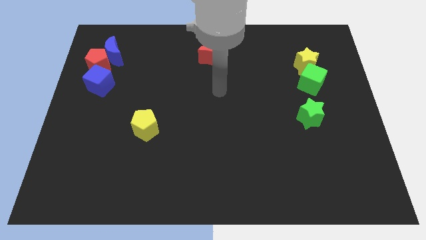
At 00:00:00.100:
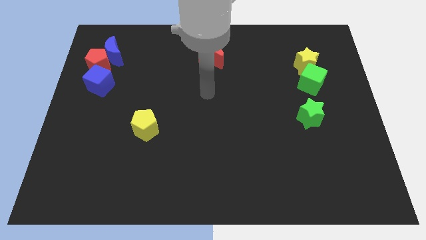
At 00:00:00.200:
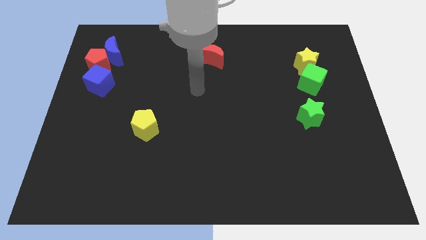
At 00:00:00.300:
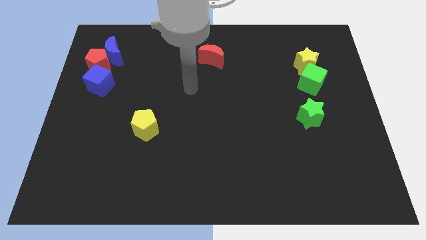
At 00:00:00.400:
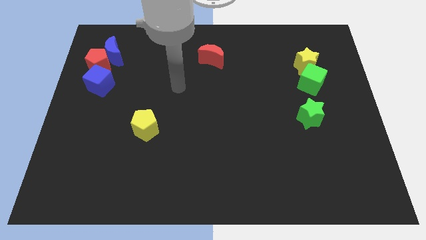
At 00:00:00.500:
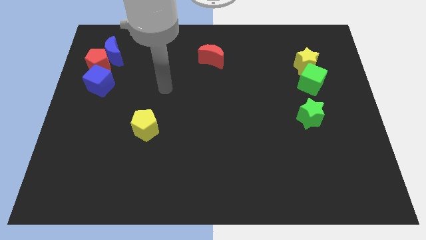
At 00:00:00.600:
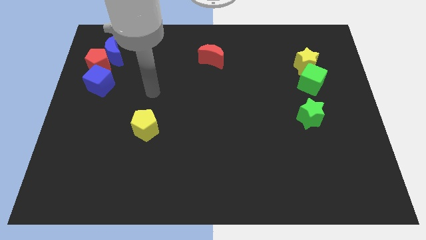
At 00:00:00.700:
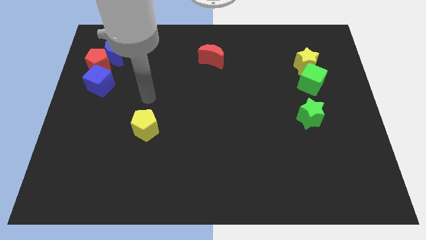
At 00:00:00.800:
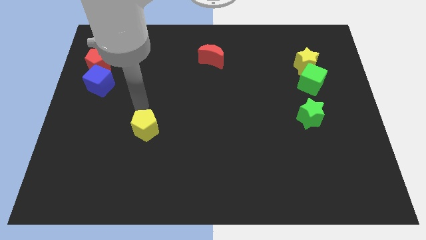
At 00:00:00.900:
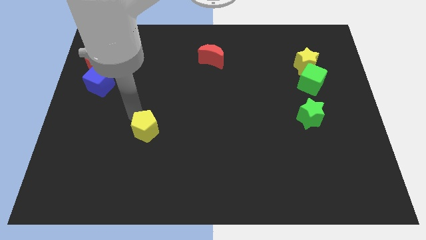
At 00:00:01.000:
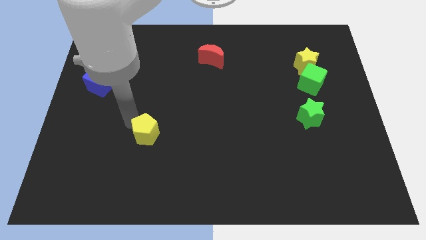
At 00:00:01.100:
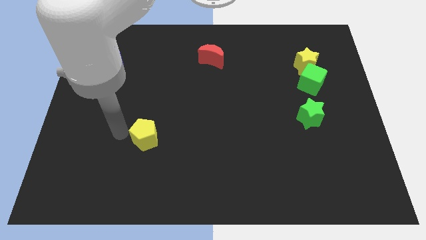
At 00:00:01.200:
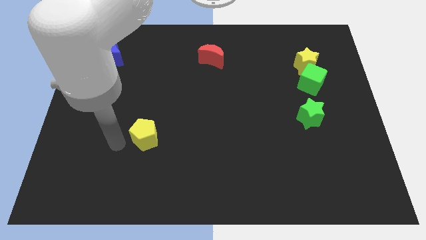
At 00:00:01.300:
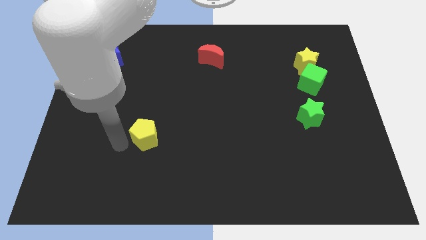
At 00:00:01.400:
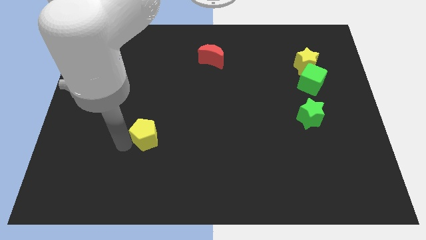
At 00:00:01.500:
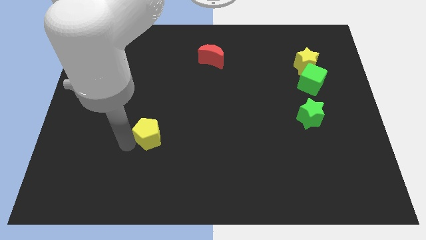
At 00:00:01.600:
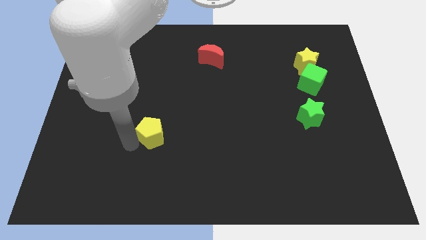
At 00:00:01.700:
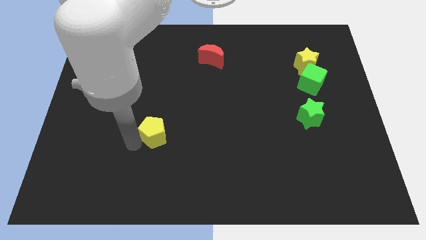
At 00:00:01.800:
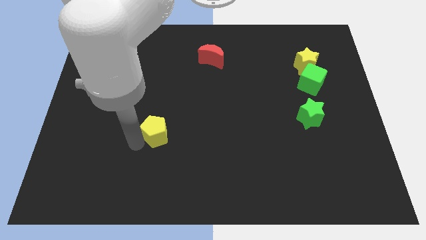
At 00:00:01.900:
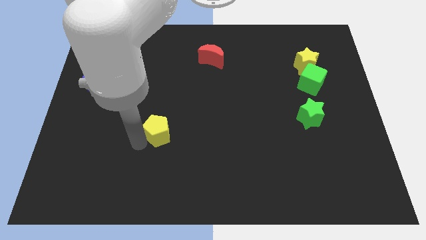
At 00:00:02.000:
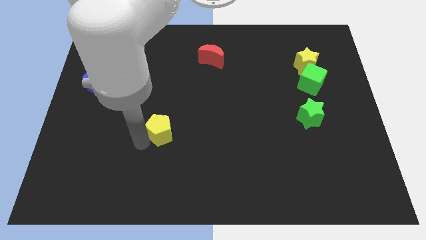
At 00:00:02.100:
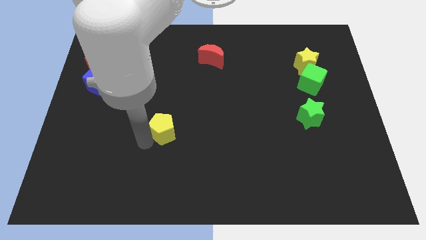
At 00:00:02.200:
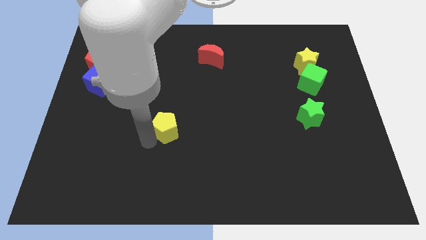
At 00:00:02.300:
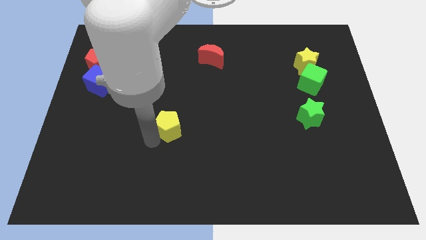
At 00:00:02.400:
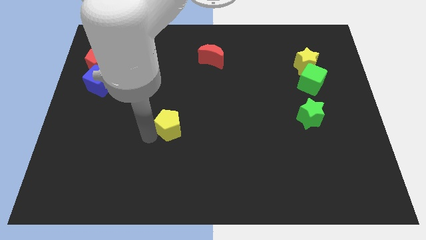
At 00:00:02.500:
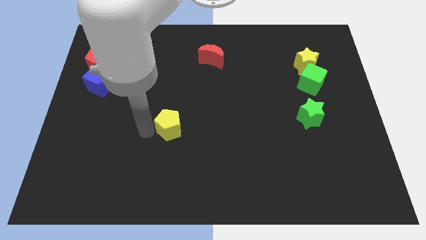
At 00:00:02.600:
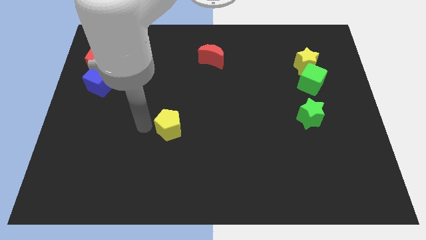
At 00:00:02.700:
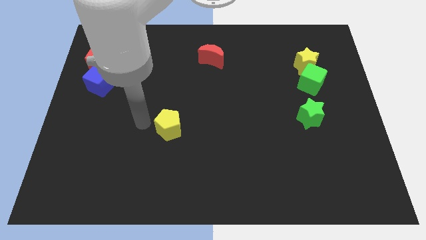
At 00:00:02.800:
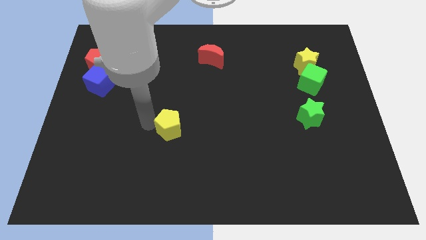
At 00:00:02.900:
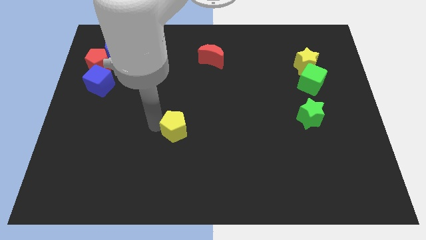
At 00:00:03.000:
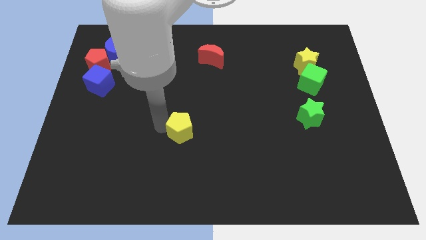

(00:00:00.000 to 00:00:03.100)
push the yellow pentagon to the right a bit

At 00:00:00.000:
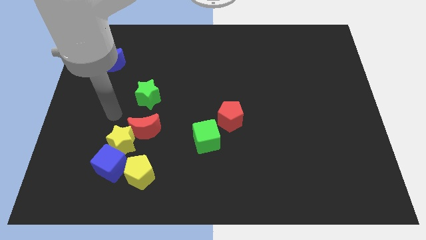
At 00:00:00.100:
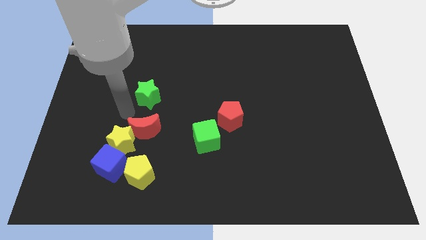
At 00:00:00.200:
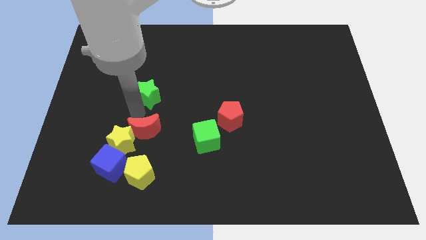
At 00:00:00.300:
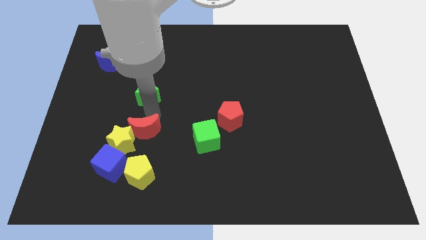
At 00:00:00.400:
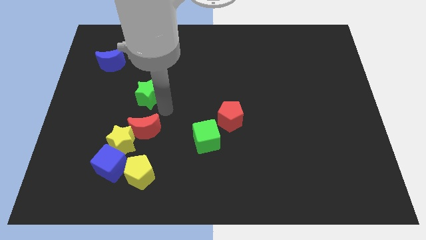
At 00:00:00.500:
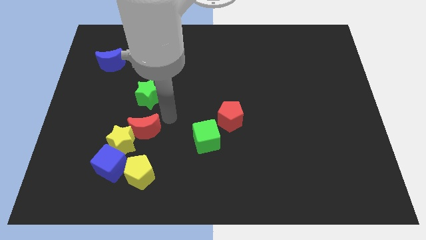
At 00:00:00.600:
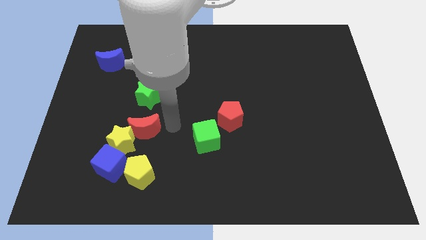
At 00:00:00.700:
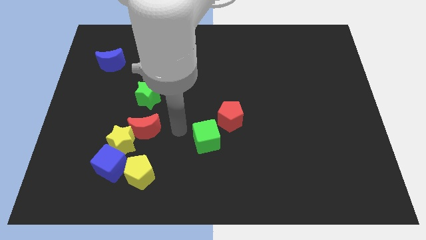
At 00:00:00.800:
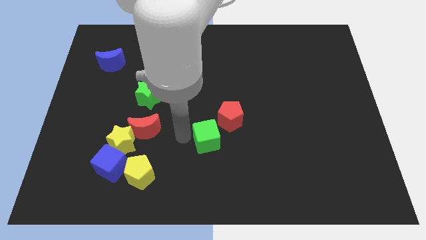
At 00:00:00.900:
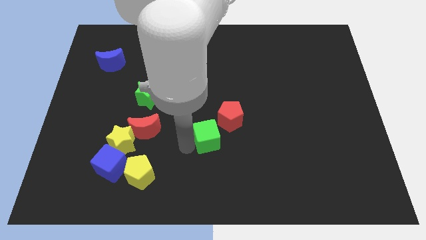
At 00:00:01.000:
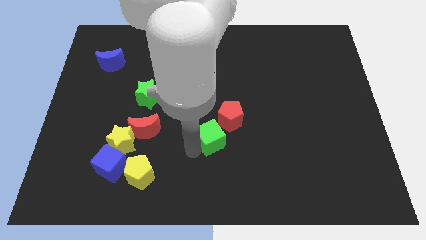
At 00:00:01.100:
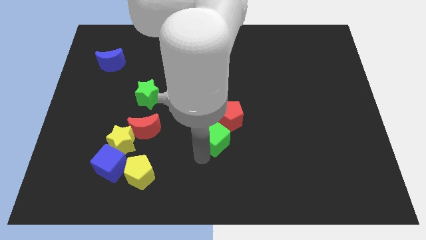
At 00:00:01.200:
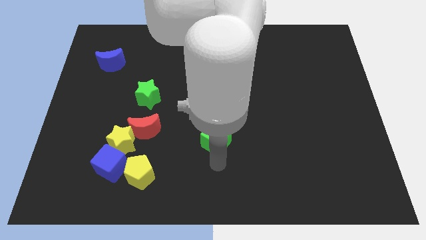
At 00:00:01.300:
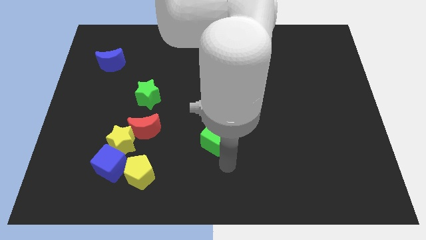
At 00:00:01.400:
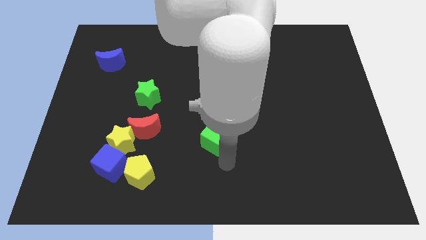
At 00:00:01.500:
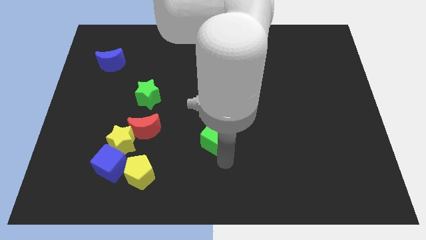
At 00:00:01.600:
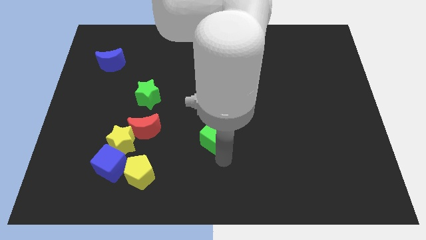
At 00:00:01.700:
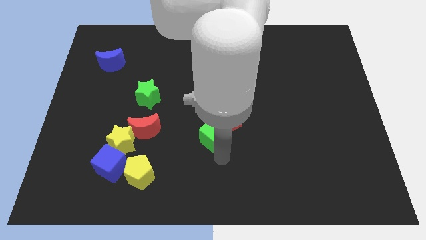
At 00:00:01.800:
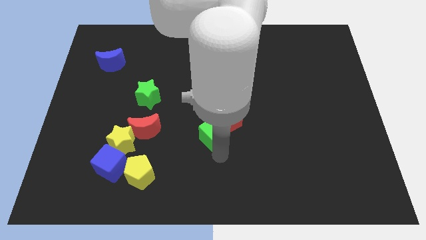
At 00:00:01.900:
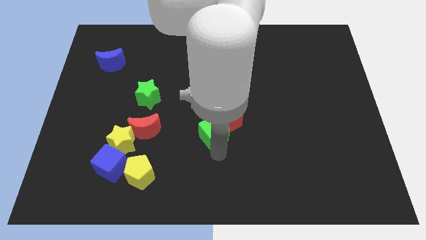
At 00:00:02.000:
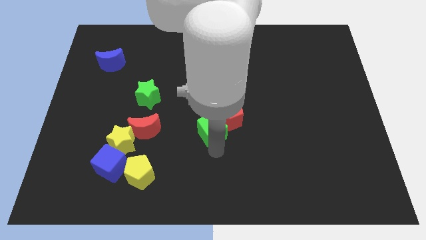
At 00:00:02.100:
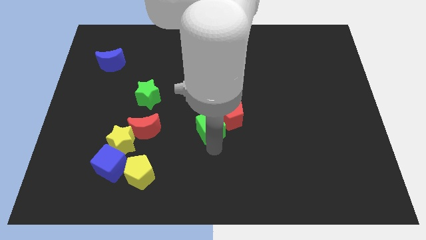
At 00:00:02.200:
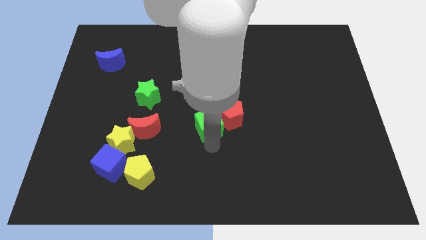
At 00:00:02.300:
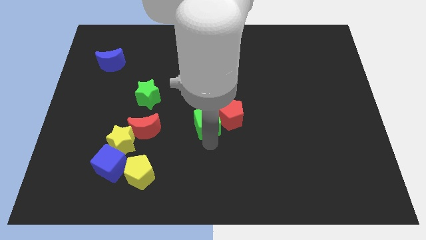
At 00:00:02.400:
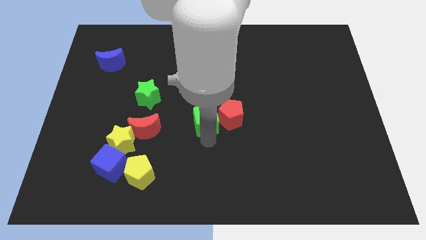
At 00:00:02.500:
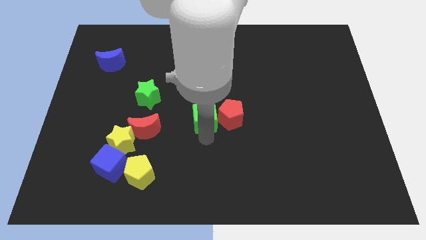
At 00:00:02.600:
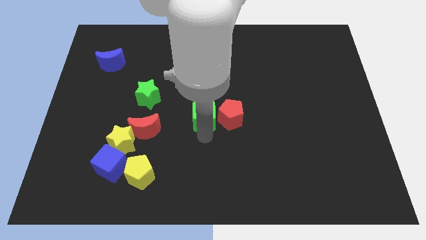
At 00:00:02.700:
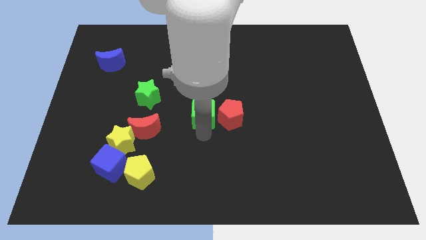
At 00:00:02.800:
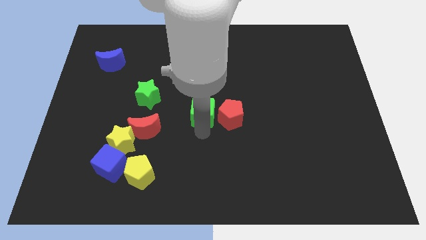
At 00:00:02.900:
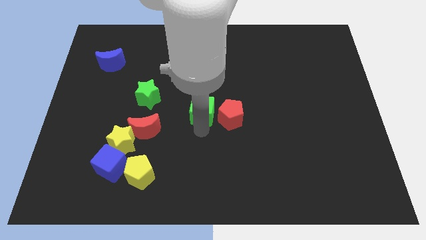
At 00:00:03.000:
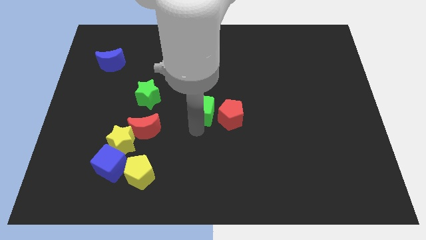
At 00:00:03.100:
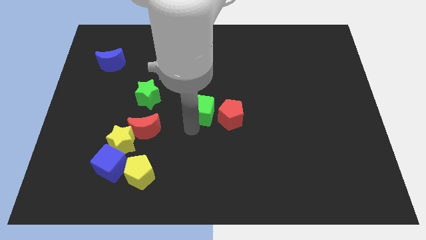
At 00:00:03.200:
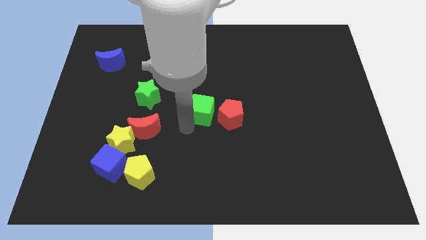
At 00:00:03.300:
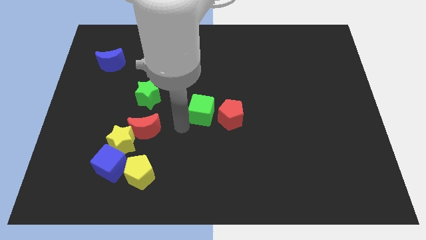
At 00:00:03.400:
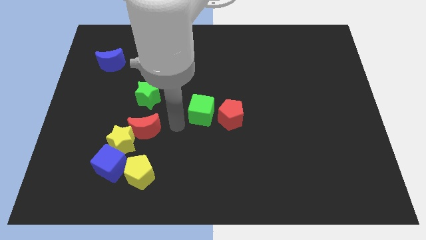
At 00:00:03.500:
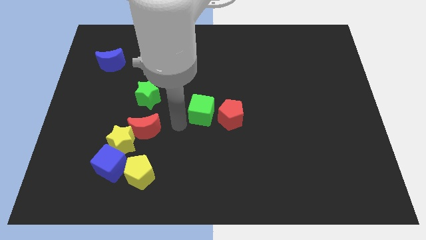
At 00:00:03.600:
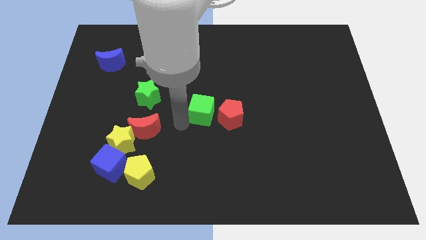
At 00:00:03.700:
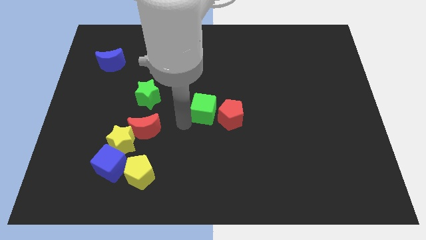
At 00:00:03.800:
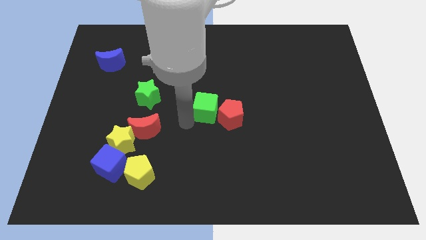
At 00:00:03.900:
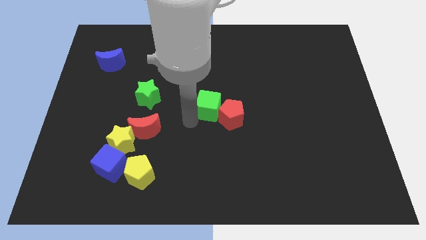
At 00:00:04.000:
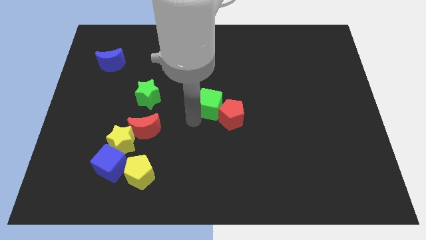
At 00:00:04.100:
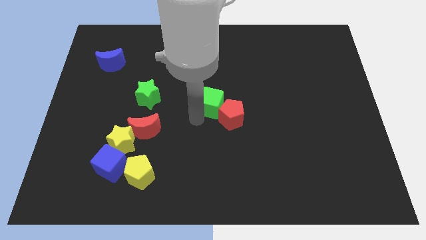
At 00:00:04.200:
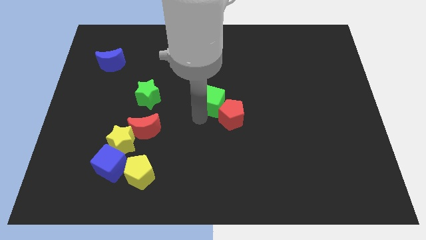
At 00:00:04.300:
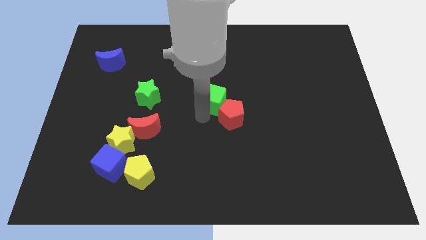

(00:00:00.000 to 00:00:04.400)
move the green cube a little bit upwards and right

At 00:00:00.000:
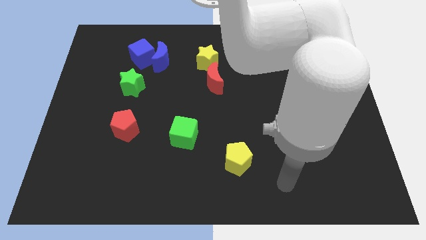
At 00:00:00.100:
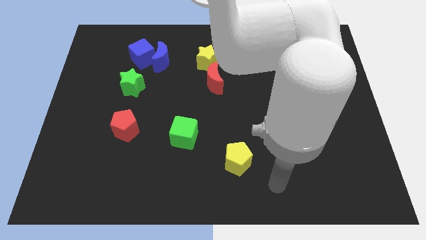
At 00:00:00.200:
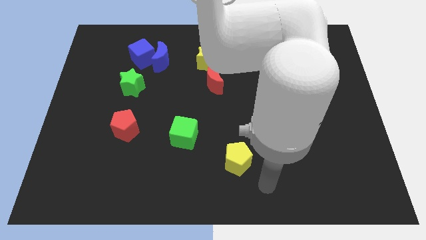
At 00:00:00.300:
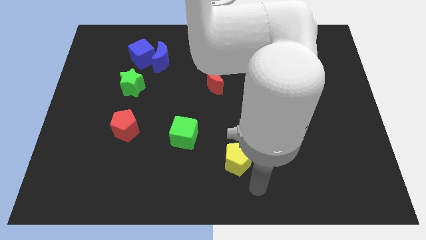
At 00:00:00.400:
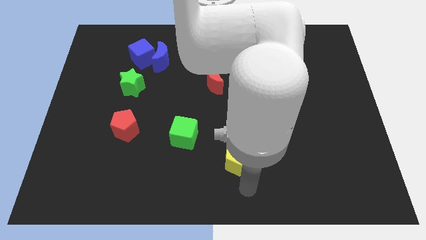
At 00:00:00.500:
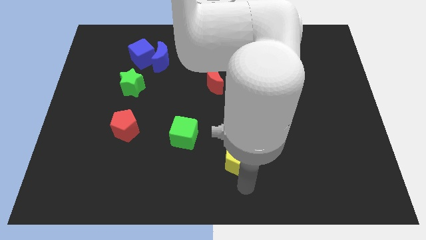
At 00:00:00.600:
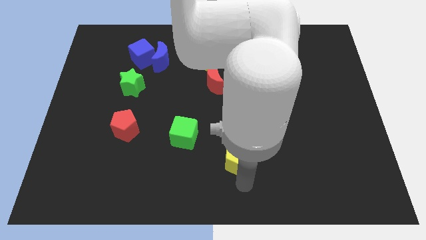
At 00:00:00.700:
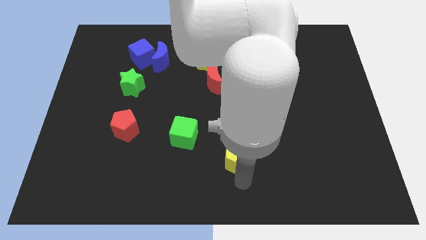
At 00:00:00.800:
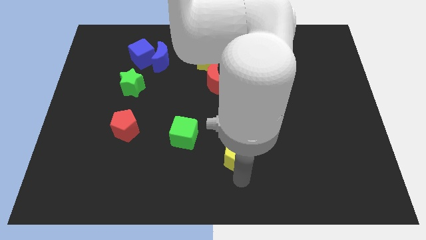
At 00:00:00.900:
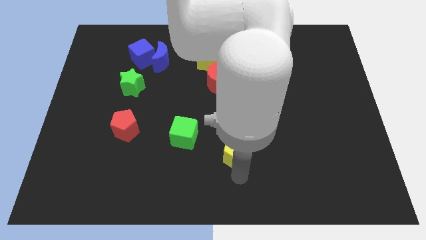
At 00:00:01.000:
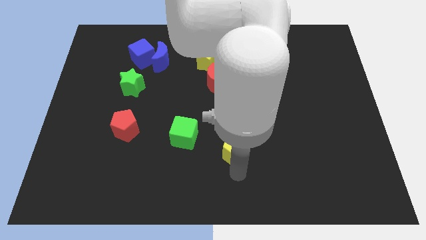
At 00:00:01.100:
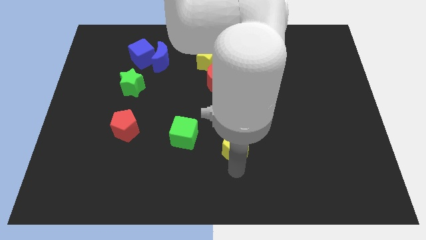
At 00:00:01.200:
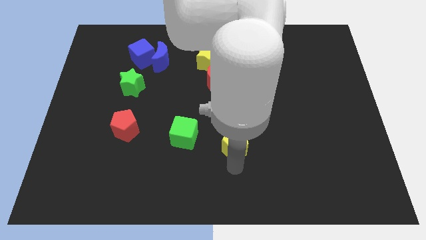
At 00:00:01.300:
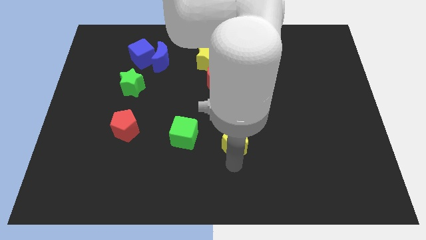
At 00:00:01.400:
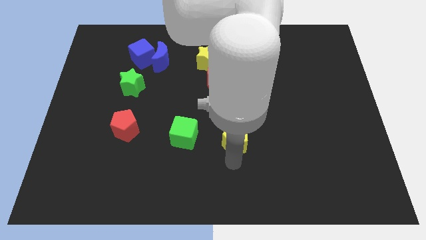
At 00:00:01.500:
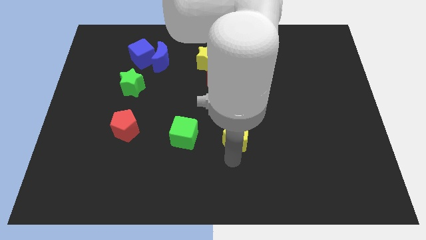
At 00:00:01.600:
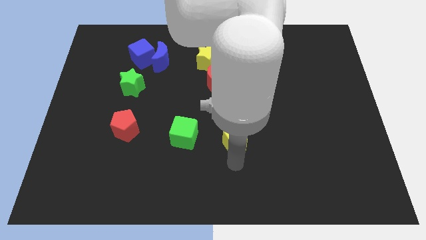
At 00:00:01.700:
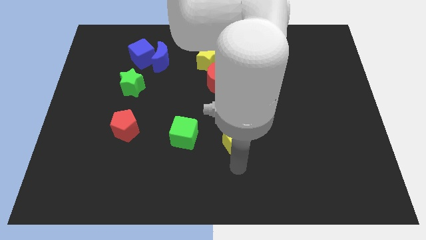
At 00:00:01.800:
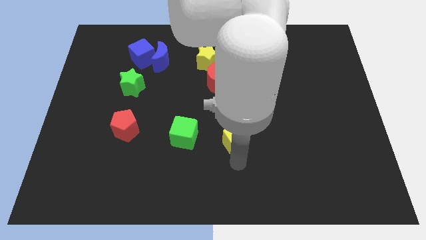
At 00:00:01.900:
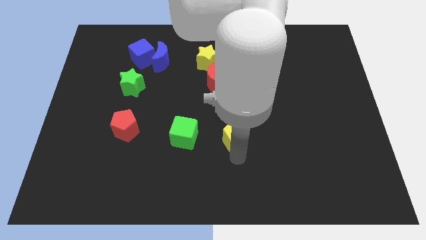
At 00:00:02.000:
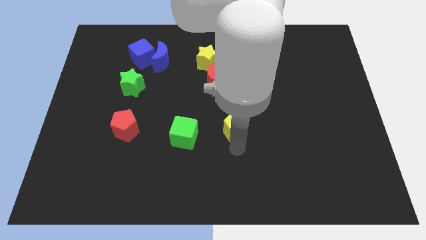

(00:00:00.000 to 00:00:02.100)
move the yellow pentagon slightly upwards
